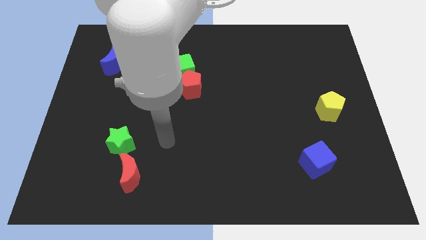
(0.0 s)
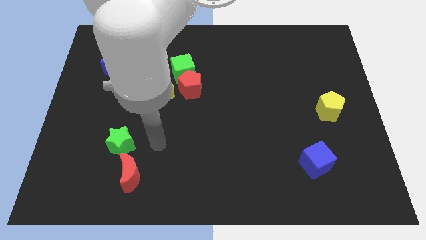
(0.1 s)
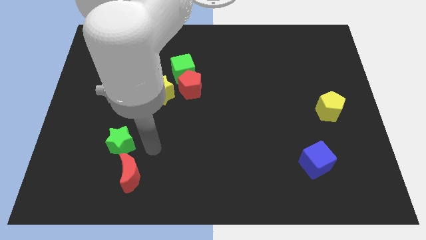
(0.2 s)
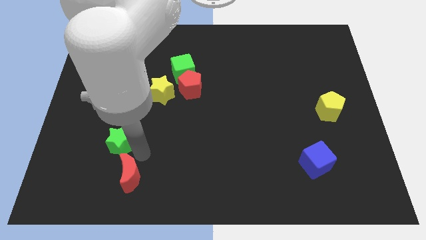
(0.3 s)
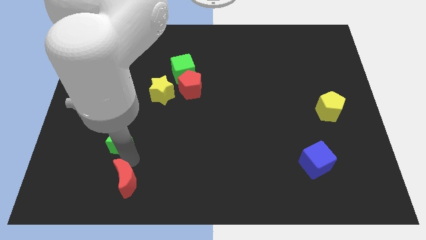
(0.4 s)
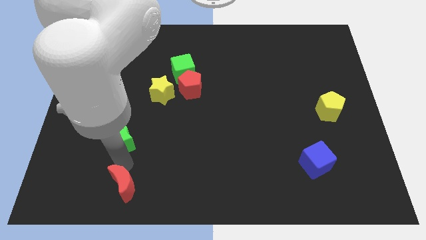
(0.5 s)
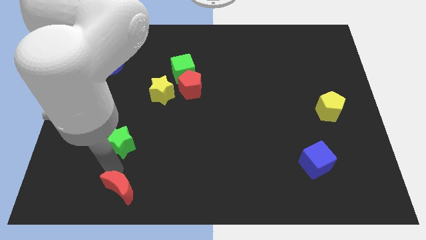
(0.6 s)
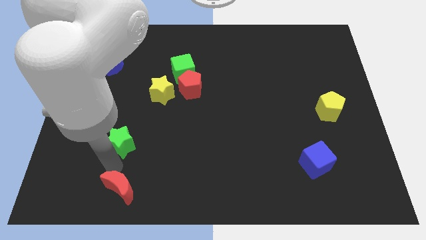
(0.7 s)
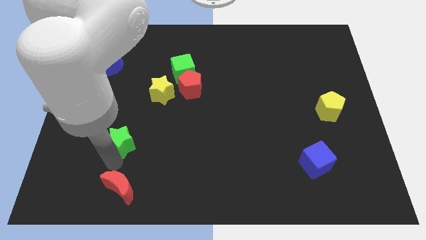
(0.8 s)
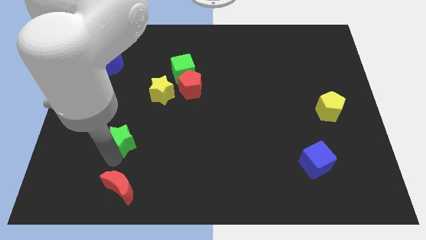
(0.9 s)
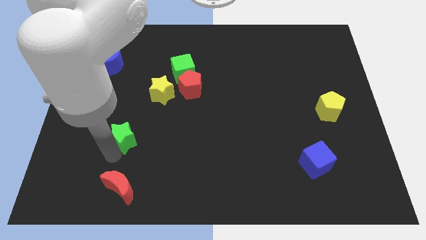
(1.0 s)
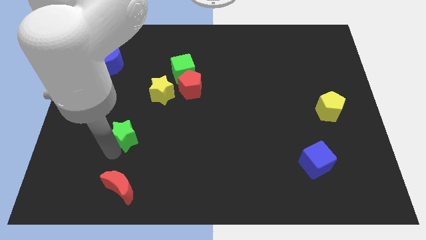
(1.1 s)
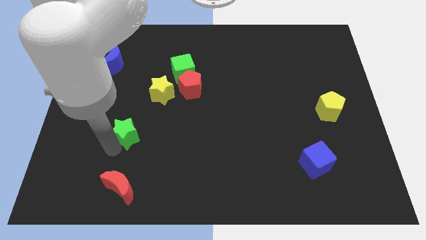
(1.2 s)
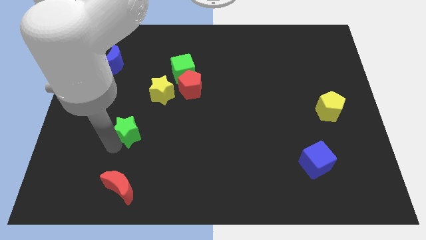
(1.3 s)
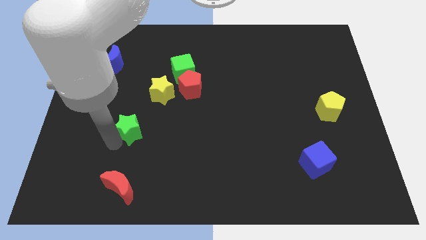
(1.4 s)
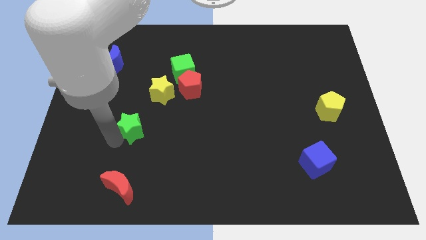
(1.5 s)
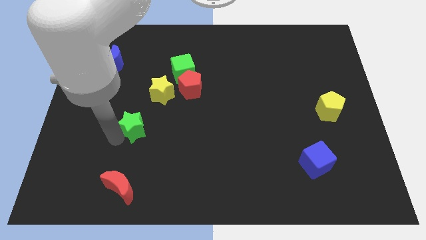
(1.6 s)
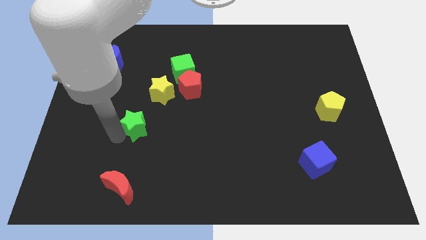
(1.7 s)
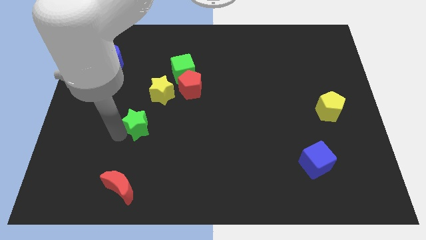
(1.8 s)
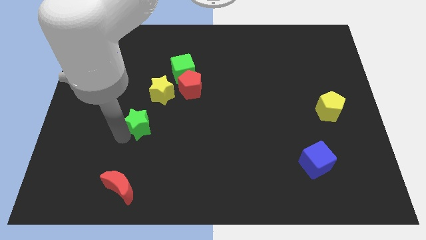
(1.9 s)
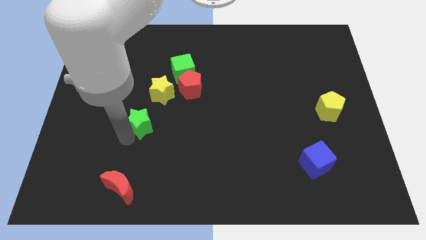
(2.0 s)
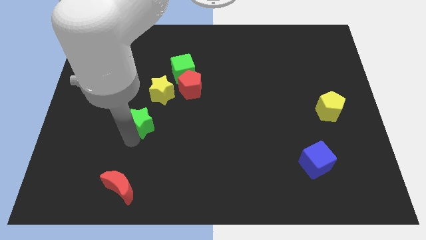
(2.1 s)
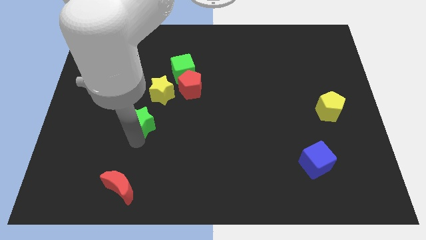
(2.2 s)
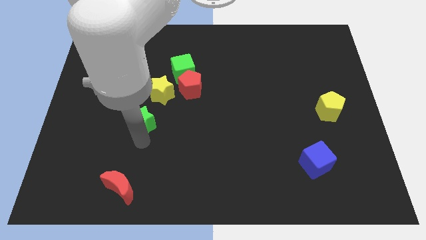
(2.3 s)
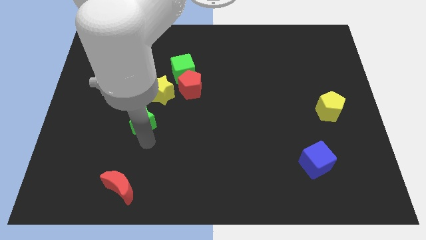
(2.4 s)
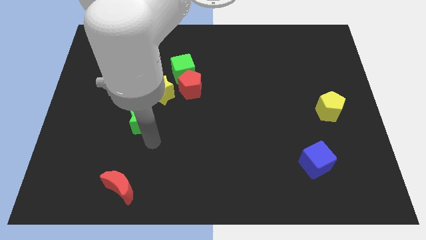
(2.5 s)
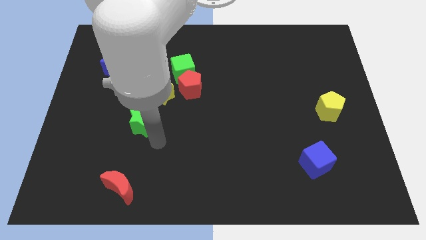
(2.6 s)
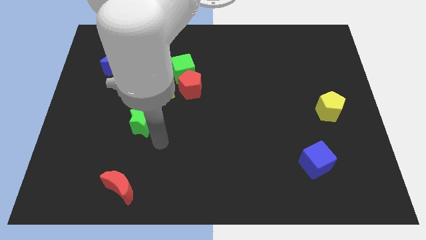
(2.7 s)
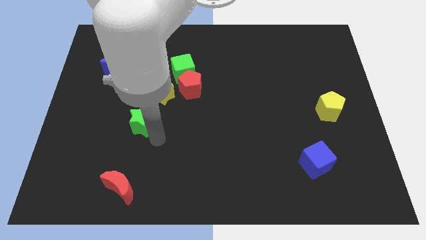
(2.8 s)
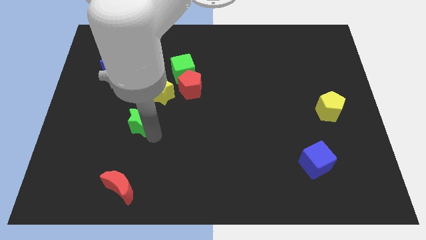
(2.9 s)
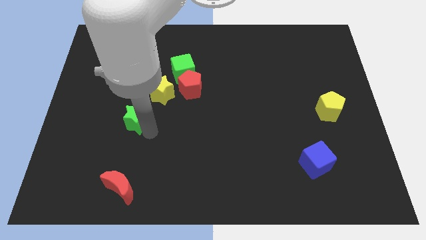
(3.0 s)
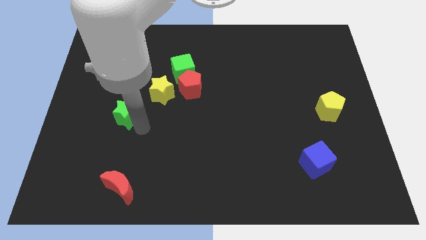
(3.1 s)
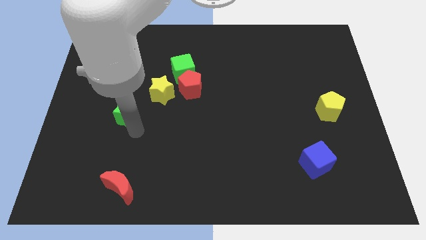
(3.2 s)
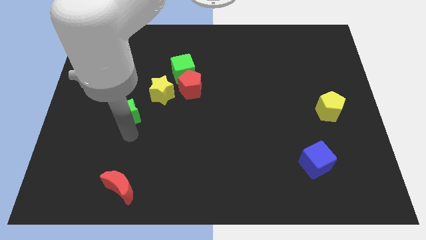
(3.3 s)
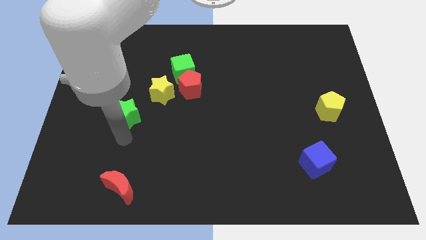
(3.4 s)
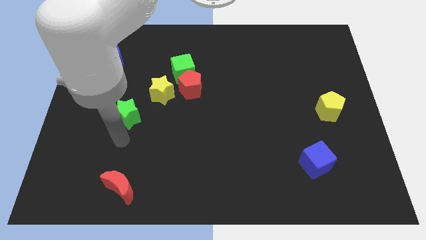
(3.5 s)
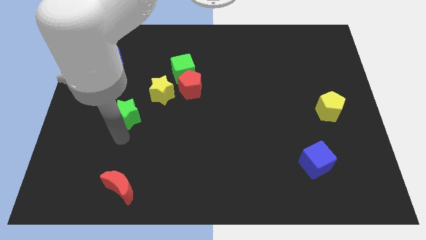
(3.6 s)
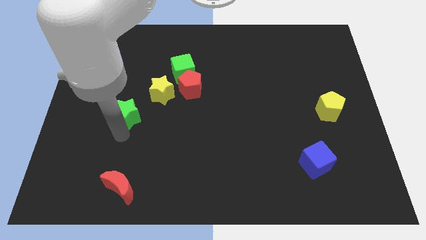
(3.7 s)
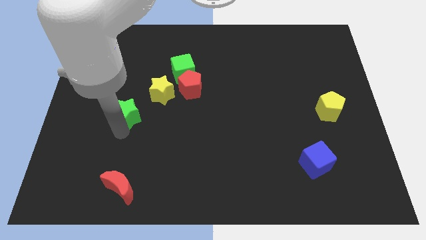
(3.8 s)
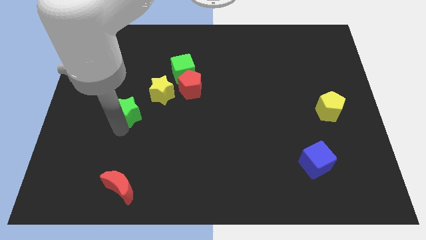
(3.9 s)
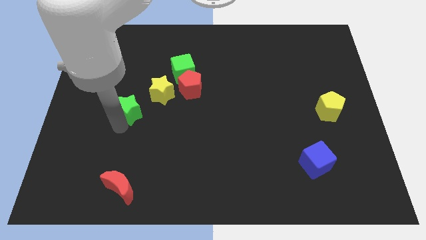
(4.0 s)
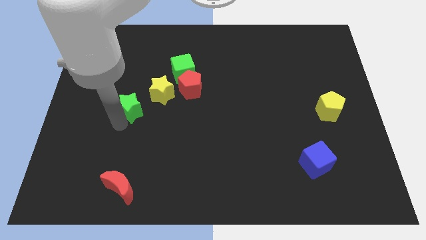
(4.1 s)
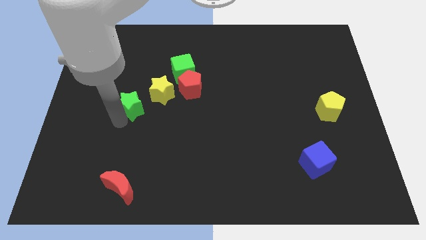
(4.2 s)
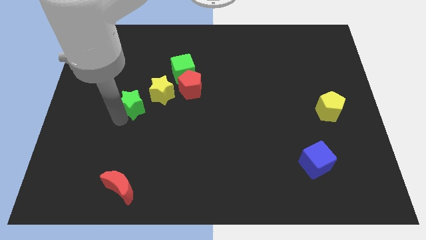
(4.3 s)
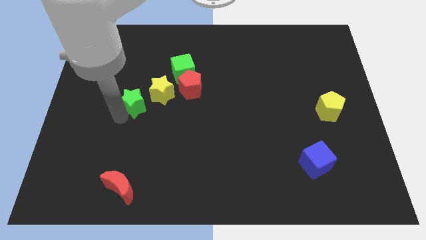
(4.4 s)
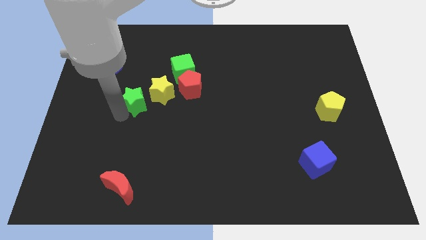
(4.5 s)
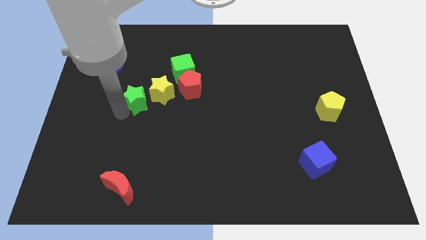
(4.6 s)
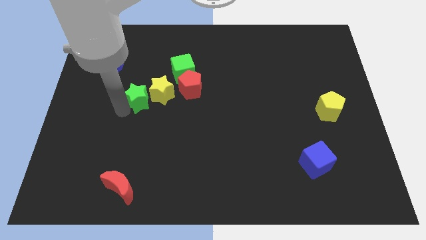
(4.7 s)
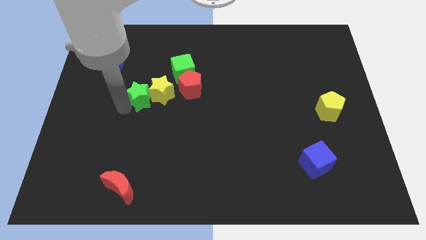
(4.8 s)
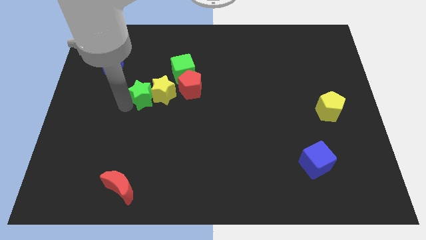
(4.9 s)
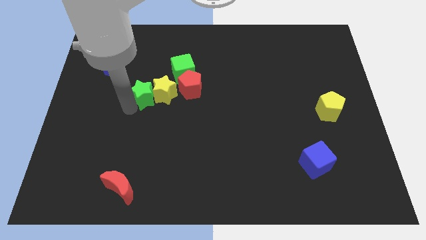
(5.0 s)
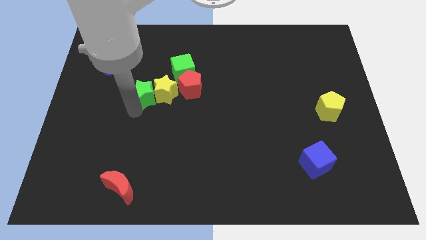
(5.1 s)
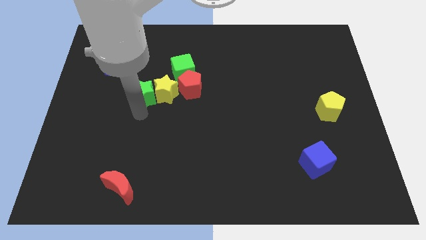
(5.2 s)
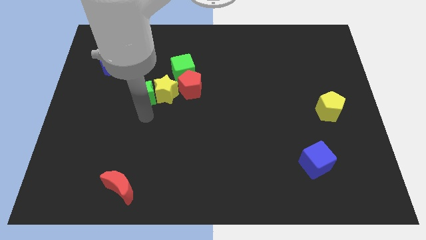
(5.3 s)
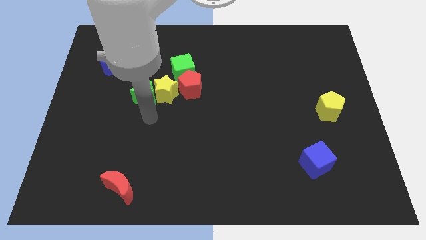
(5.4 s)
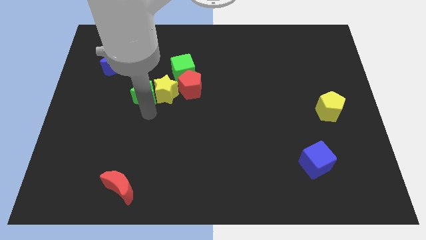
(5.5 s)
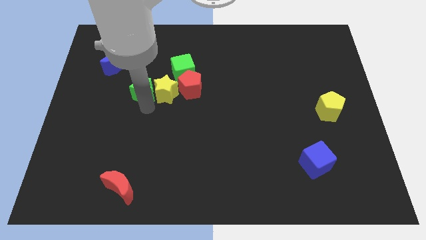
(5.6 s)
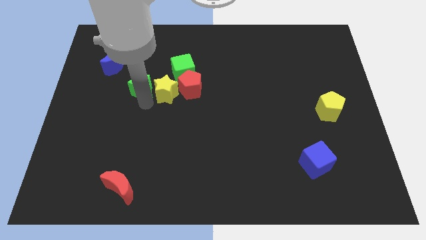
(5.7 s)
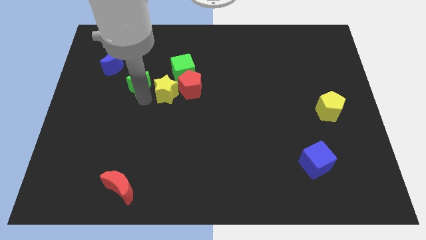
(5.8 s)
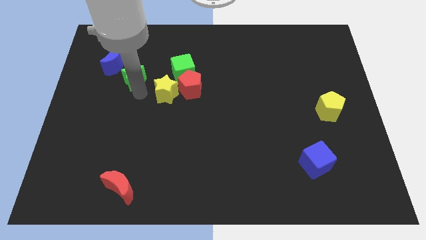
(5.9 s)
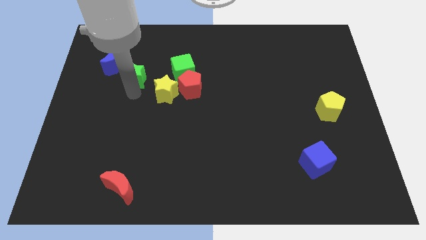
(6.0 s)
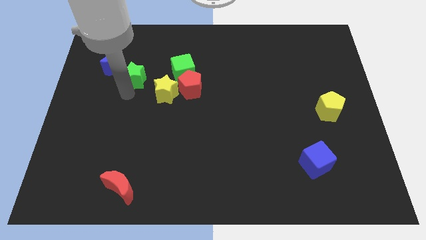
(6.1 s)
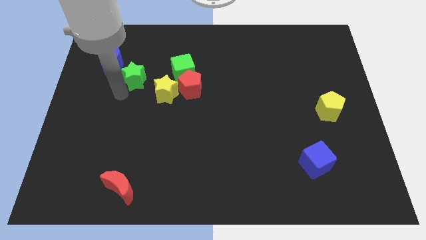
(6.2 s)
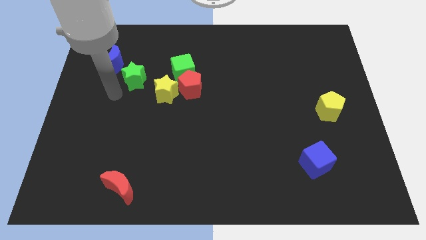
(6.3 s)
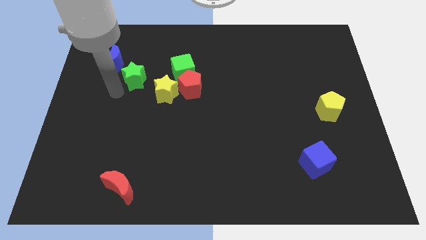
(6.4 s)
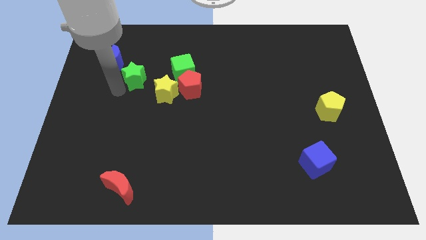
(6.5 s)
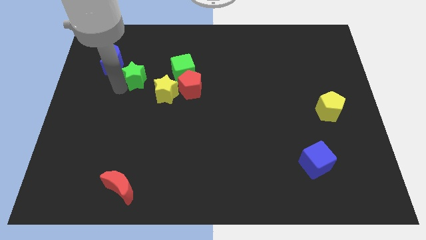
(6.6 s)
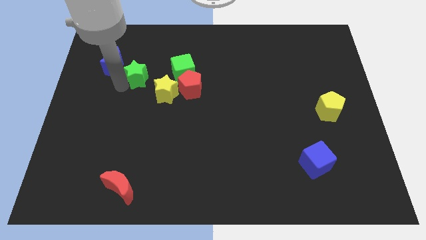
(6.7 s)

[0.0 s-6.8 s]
put the green star right of the blue moon

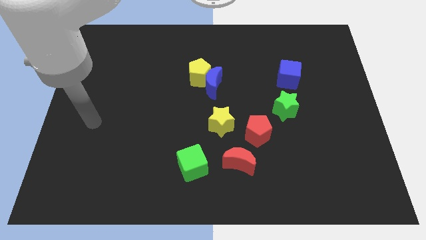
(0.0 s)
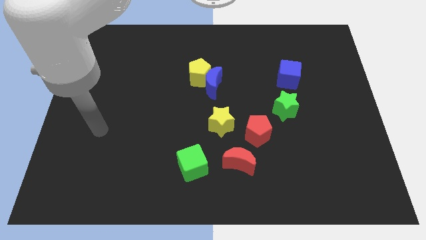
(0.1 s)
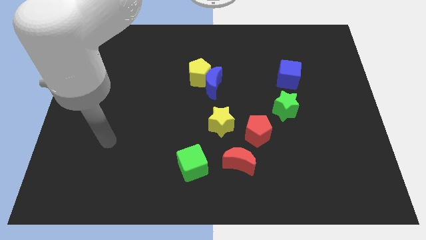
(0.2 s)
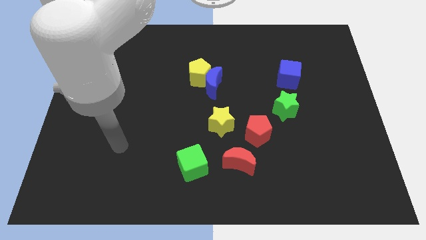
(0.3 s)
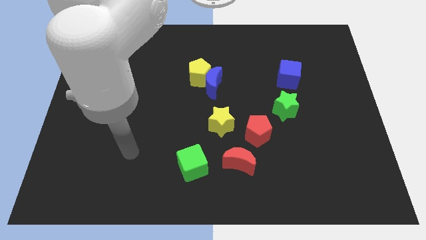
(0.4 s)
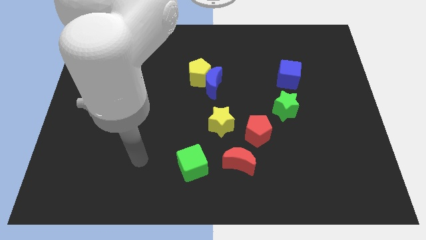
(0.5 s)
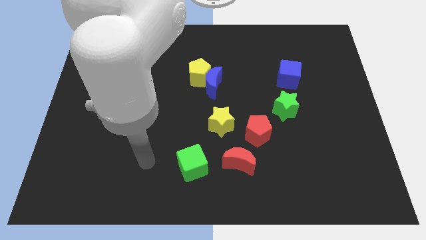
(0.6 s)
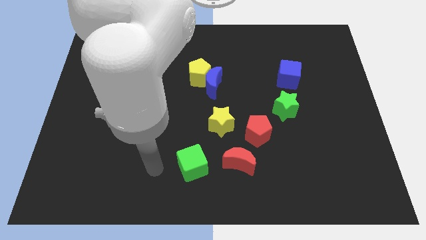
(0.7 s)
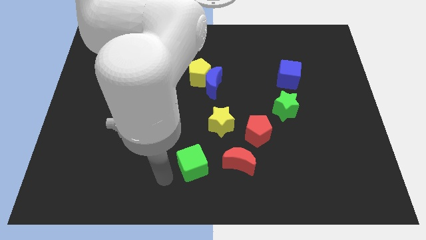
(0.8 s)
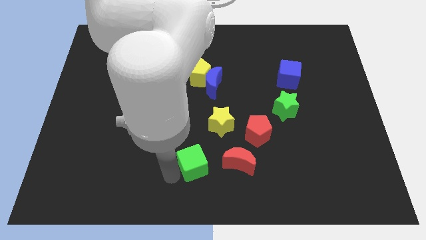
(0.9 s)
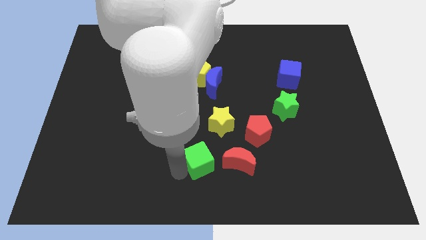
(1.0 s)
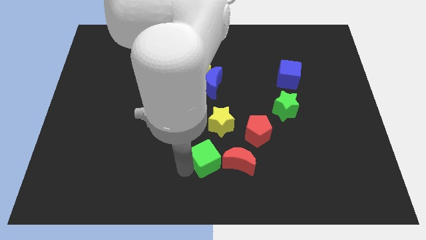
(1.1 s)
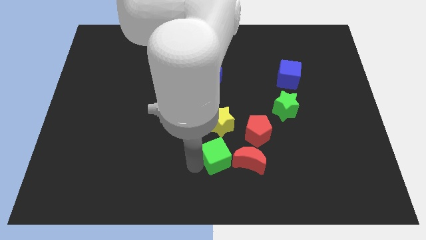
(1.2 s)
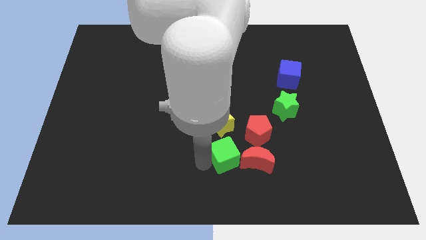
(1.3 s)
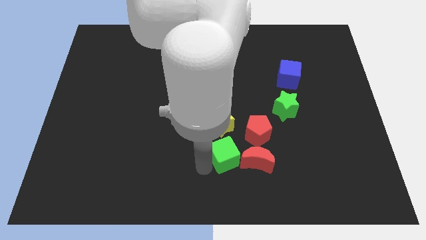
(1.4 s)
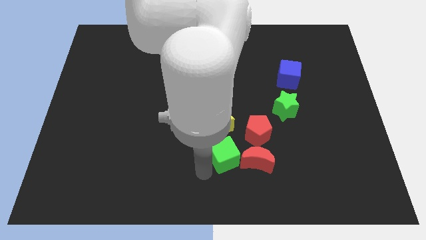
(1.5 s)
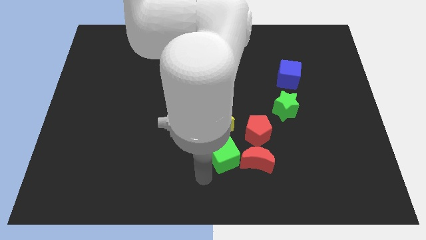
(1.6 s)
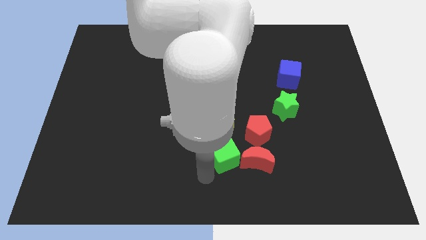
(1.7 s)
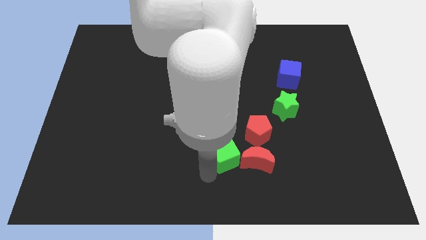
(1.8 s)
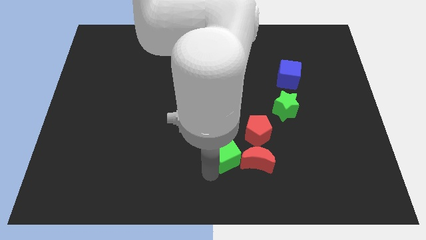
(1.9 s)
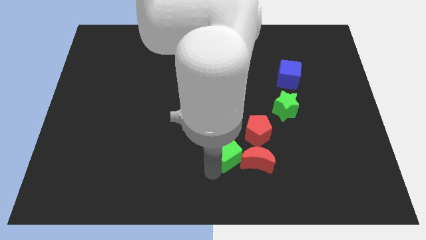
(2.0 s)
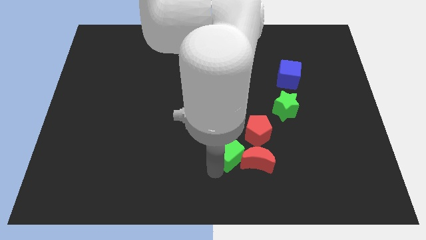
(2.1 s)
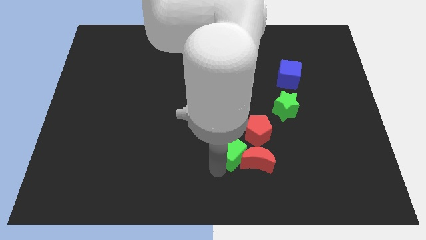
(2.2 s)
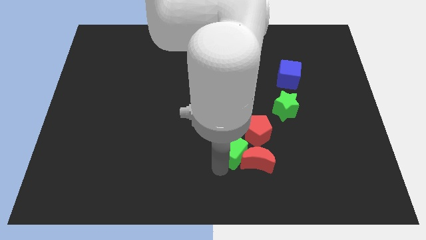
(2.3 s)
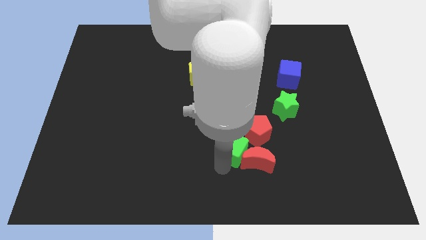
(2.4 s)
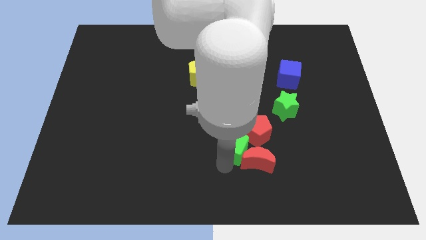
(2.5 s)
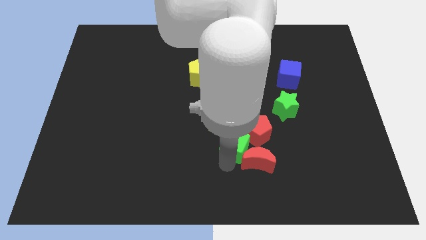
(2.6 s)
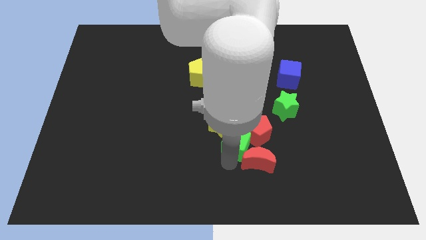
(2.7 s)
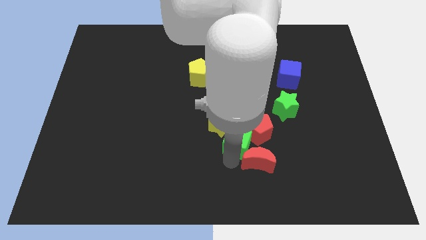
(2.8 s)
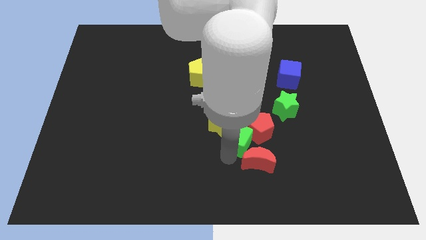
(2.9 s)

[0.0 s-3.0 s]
put the green cube to the right of the yellow star
